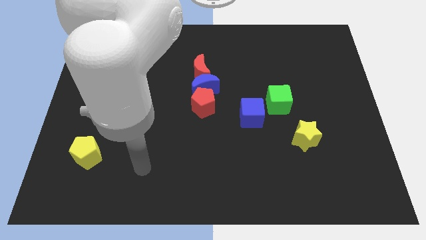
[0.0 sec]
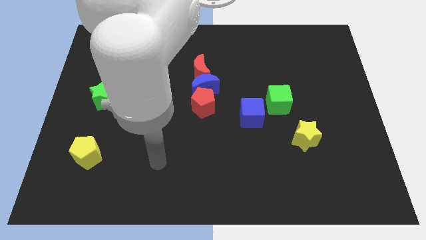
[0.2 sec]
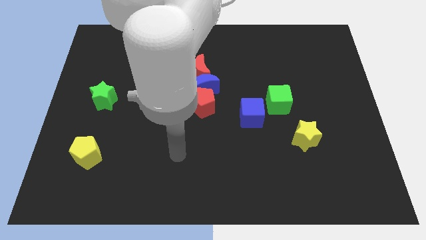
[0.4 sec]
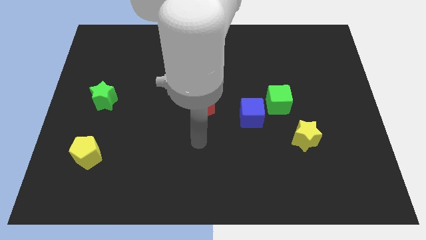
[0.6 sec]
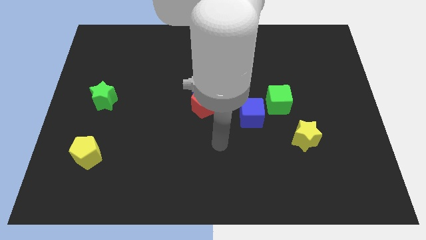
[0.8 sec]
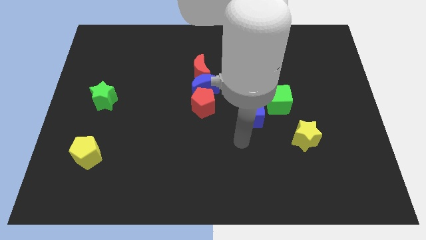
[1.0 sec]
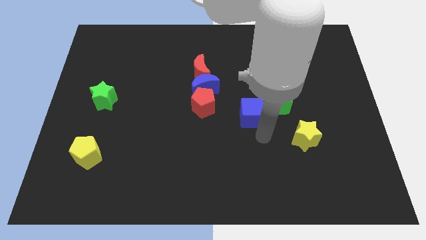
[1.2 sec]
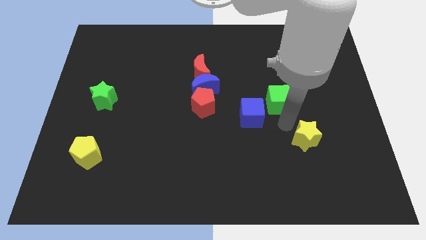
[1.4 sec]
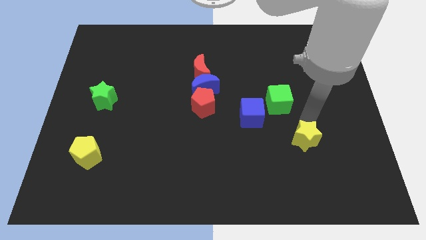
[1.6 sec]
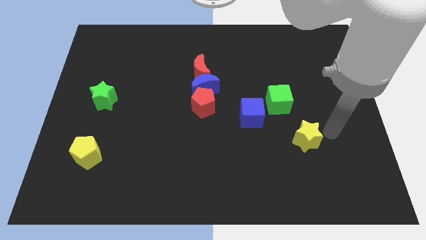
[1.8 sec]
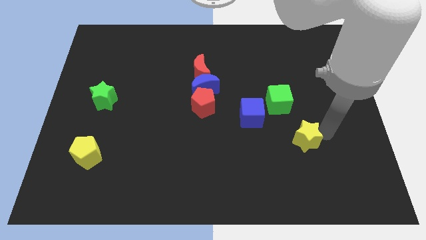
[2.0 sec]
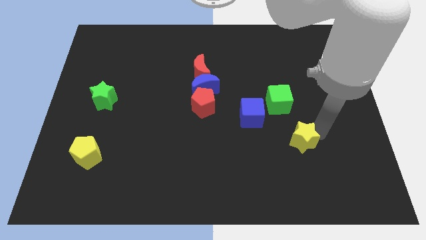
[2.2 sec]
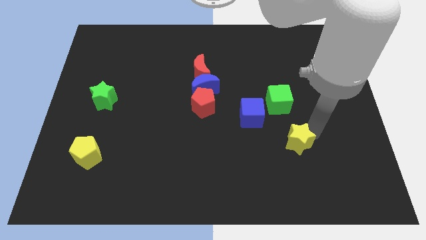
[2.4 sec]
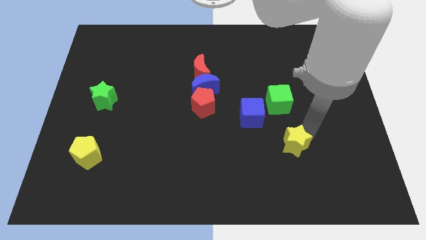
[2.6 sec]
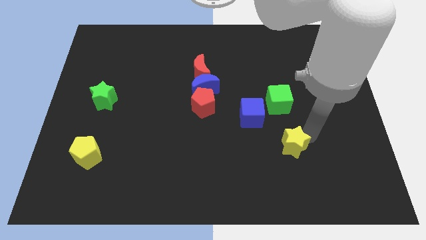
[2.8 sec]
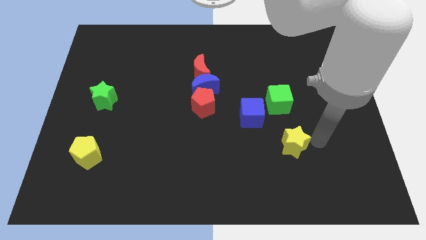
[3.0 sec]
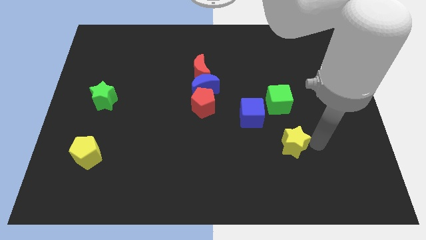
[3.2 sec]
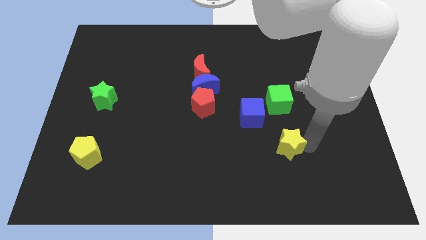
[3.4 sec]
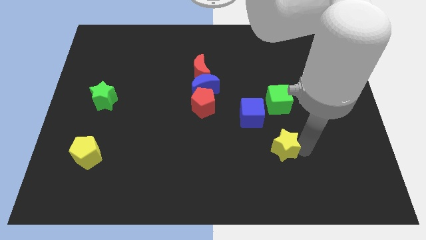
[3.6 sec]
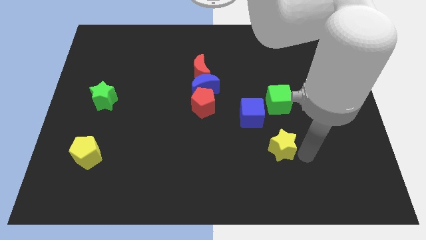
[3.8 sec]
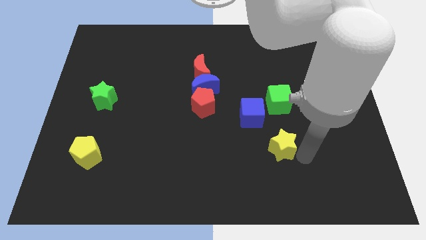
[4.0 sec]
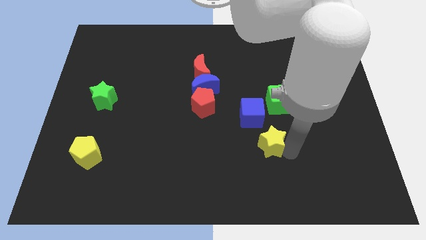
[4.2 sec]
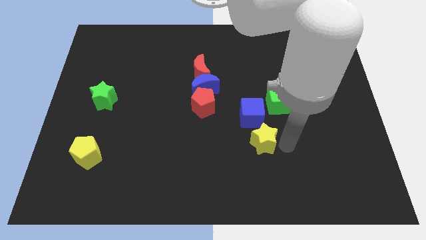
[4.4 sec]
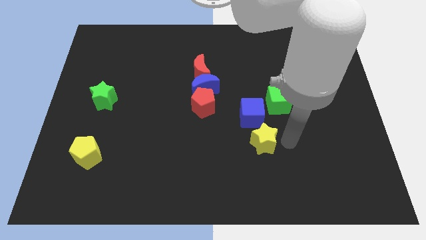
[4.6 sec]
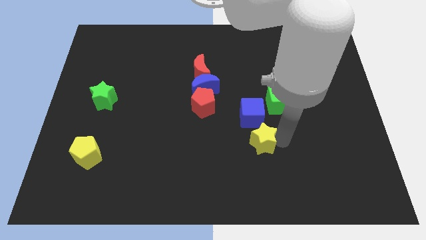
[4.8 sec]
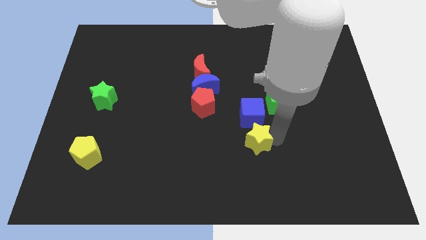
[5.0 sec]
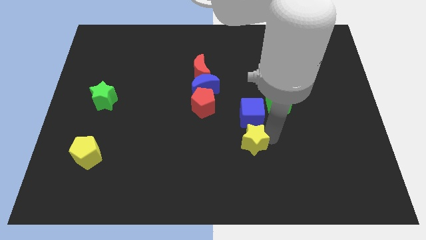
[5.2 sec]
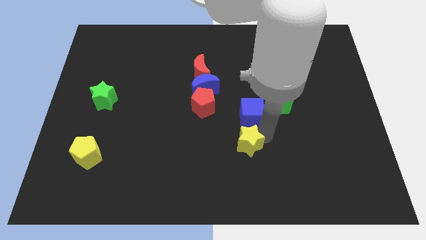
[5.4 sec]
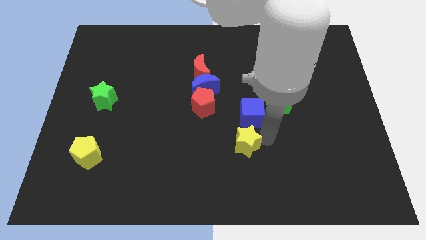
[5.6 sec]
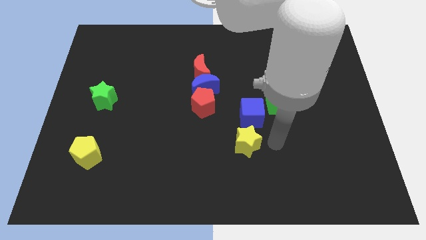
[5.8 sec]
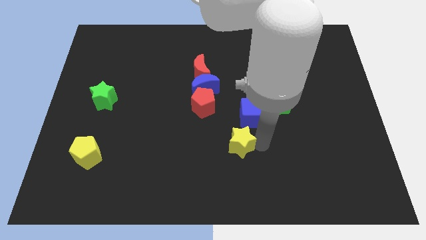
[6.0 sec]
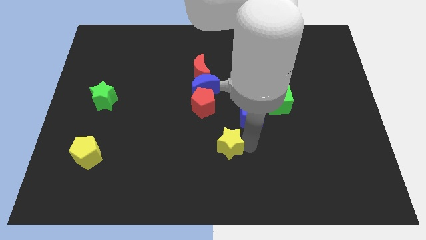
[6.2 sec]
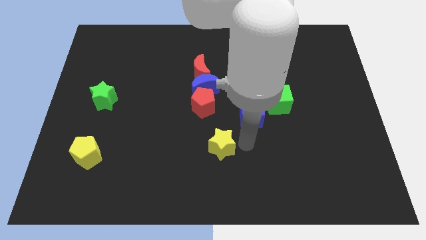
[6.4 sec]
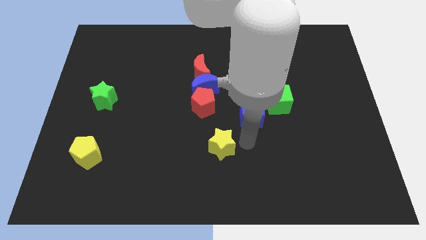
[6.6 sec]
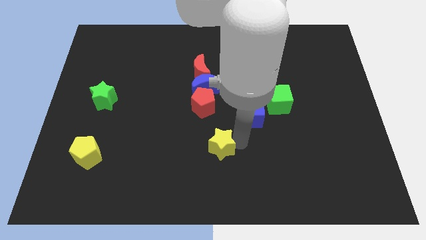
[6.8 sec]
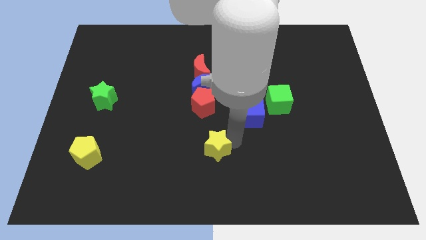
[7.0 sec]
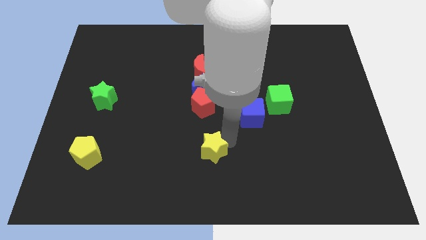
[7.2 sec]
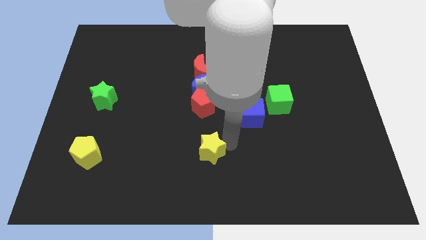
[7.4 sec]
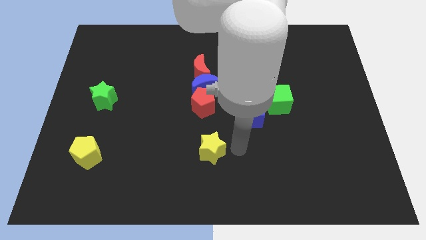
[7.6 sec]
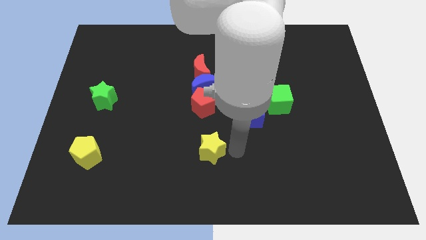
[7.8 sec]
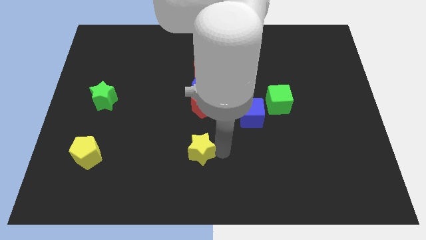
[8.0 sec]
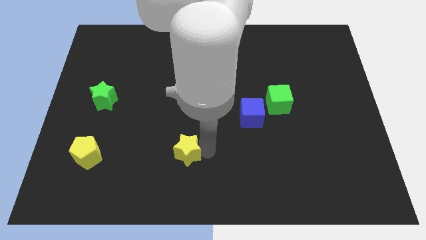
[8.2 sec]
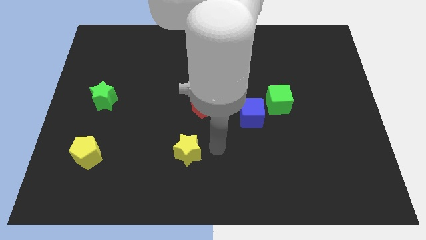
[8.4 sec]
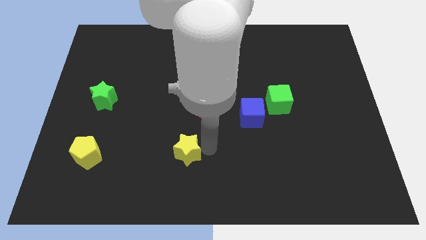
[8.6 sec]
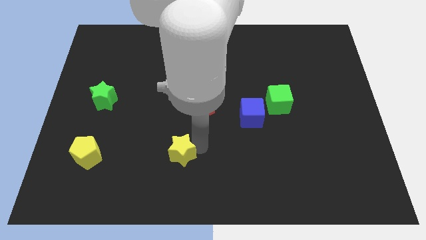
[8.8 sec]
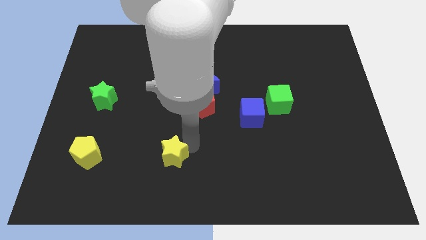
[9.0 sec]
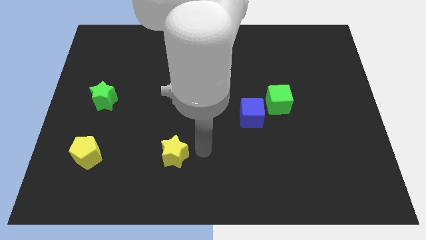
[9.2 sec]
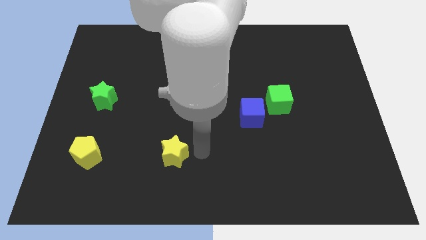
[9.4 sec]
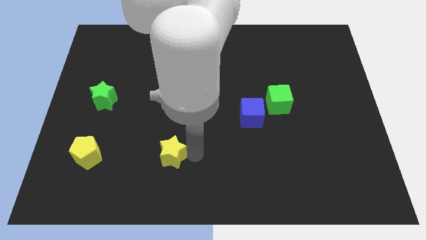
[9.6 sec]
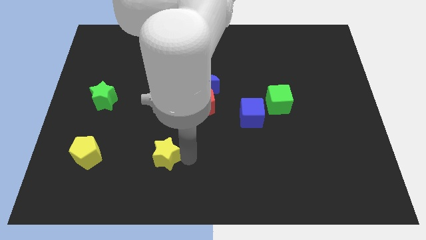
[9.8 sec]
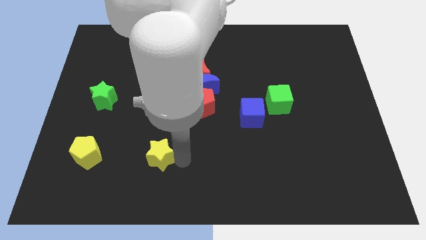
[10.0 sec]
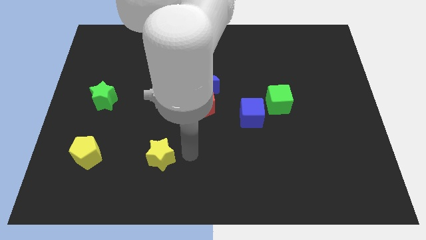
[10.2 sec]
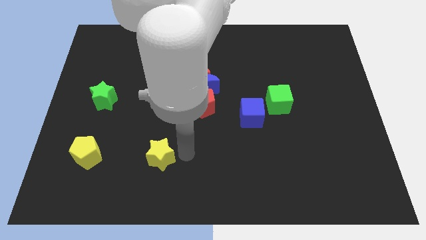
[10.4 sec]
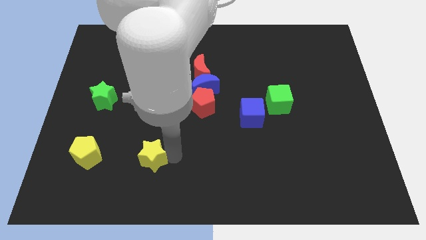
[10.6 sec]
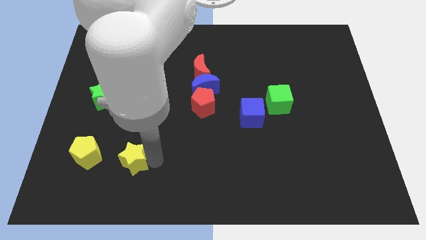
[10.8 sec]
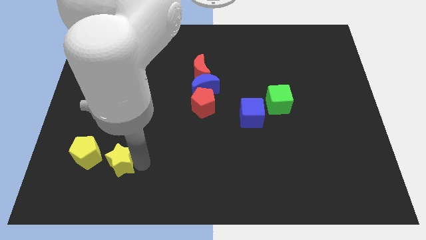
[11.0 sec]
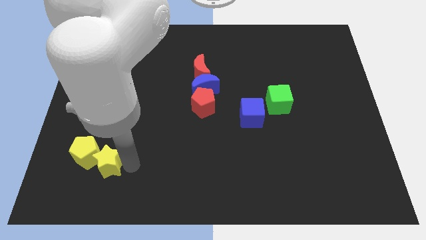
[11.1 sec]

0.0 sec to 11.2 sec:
slide the yellow star towards the yellow pentagon
